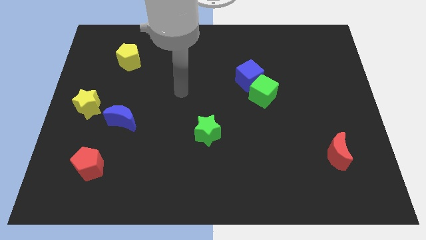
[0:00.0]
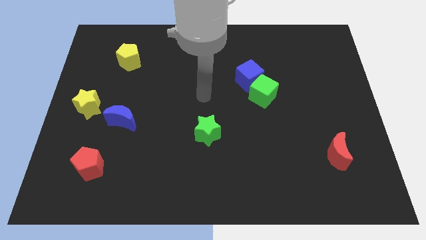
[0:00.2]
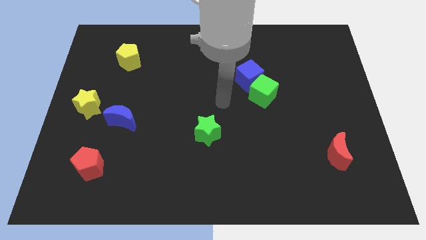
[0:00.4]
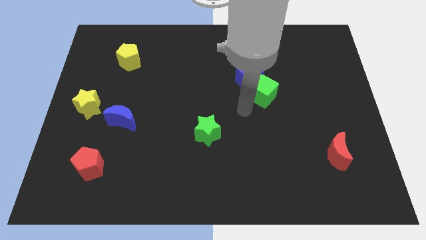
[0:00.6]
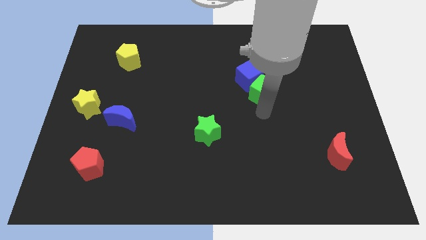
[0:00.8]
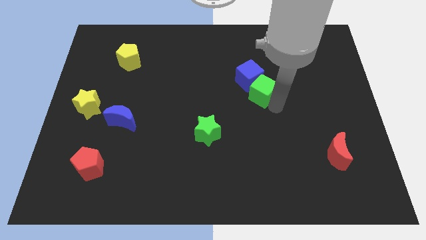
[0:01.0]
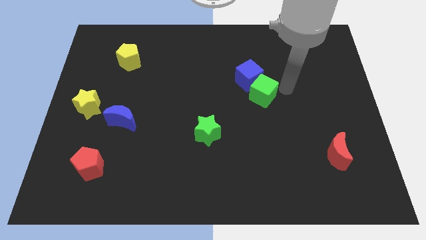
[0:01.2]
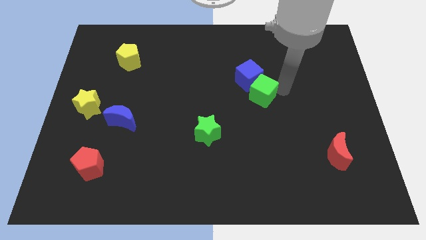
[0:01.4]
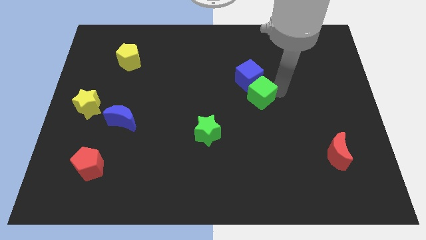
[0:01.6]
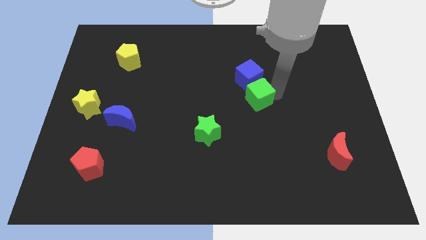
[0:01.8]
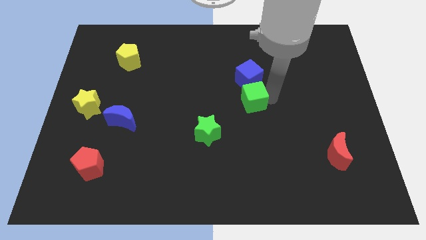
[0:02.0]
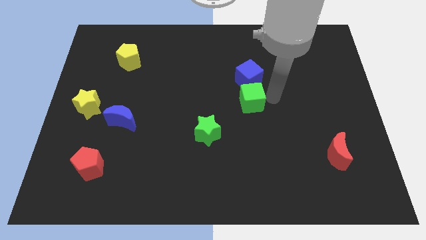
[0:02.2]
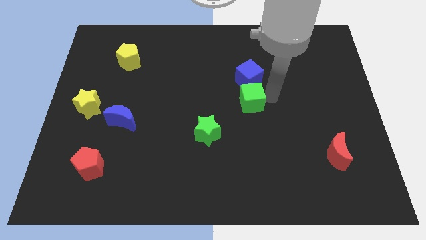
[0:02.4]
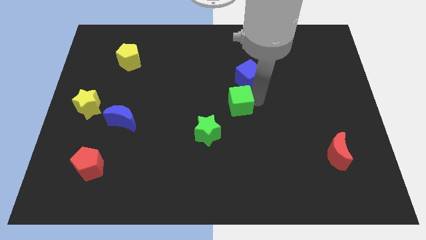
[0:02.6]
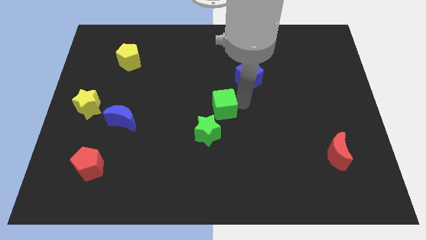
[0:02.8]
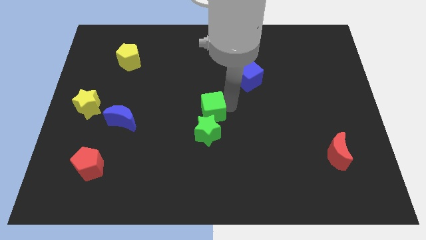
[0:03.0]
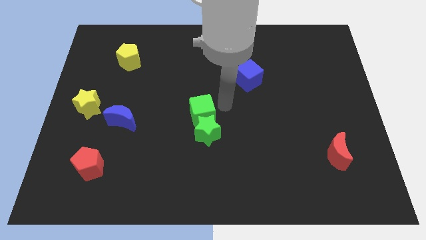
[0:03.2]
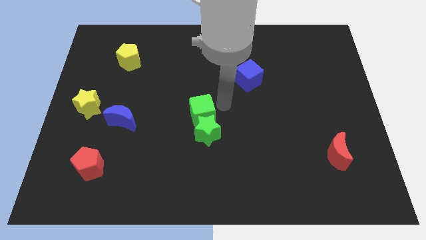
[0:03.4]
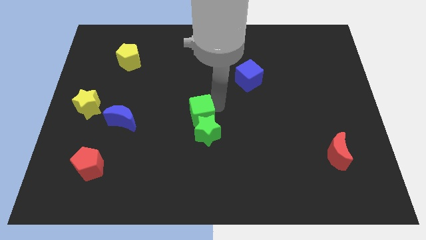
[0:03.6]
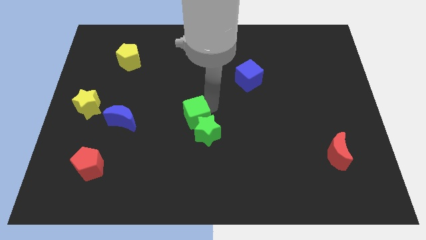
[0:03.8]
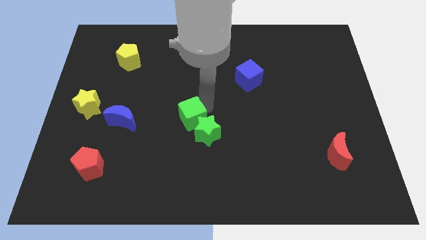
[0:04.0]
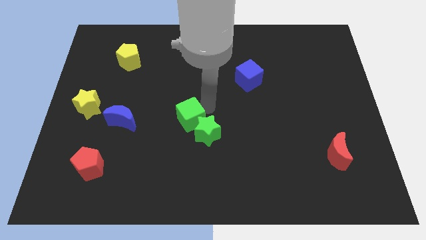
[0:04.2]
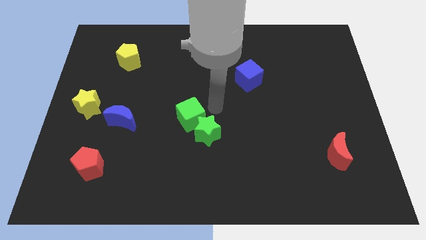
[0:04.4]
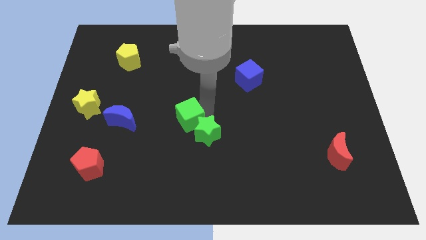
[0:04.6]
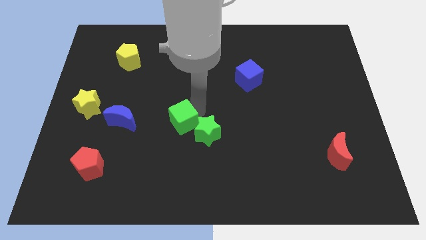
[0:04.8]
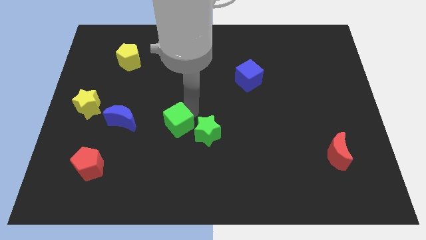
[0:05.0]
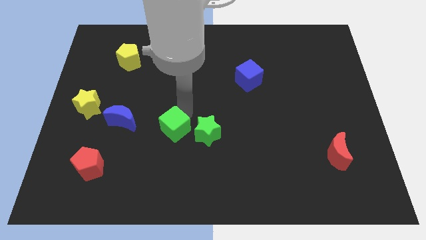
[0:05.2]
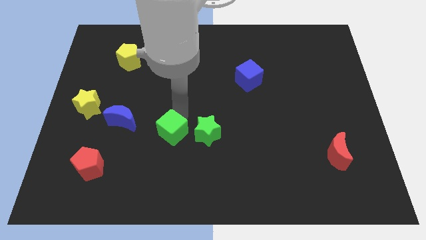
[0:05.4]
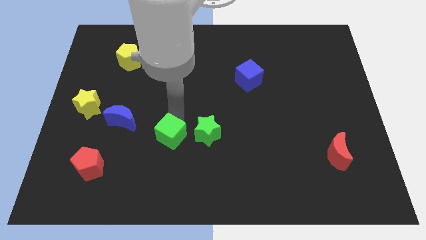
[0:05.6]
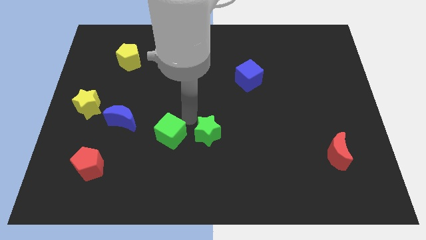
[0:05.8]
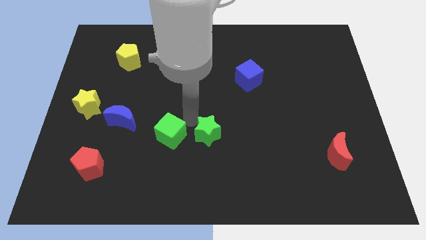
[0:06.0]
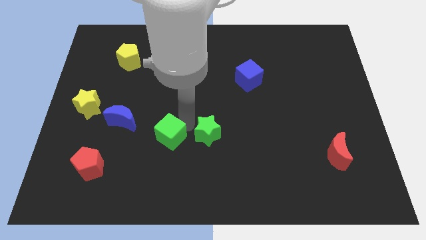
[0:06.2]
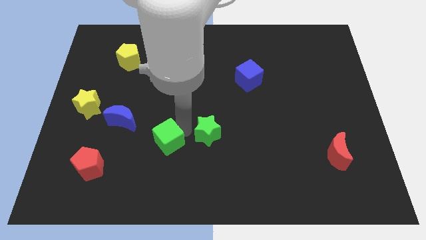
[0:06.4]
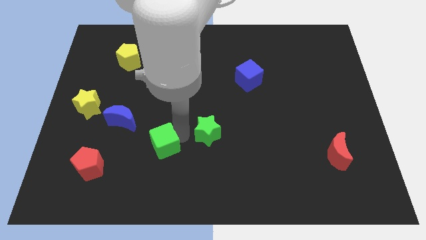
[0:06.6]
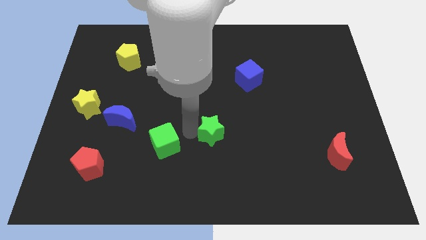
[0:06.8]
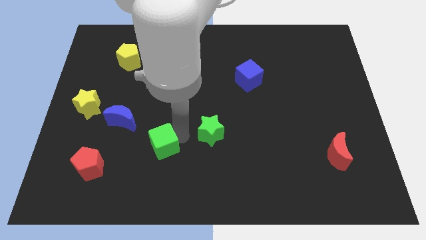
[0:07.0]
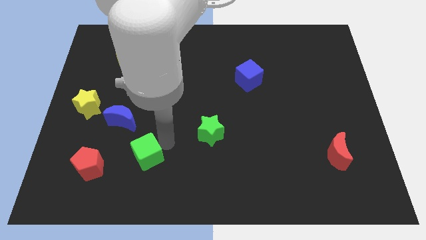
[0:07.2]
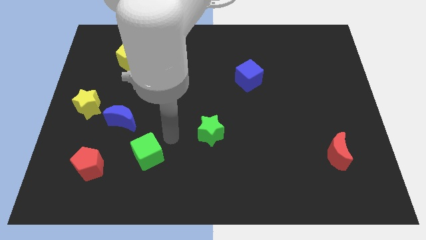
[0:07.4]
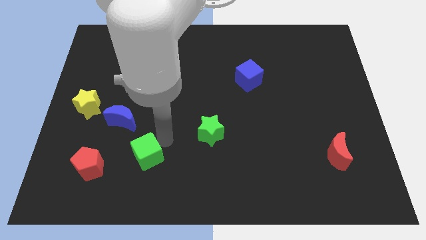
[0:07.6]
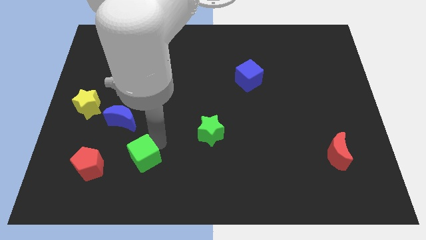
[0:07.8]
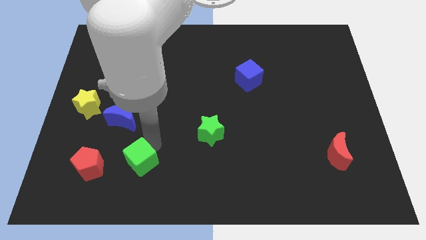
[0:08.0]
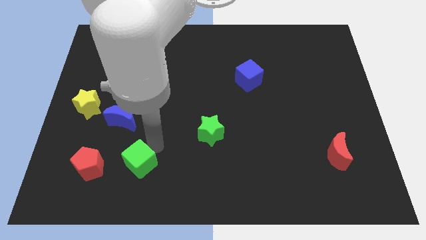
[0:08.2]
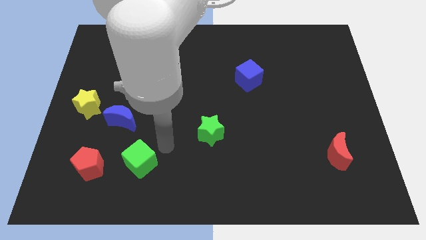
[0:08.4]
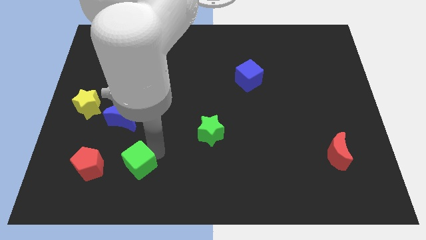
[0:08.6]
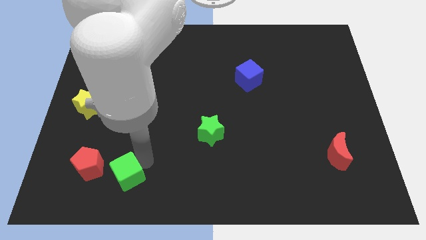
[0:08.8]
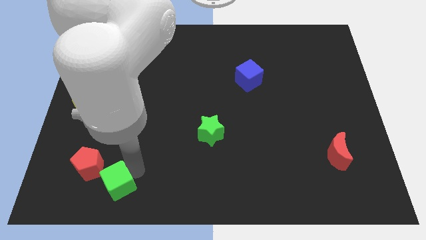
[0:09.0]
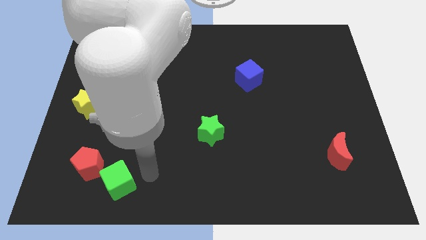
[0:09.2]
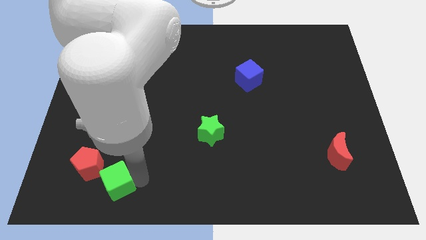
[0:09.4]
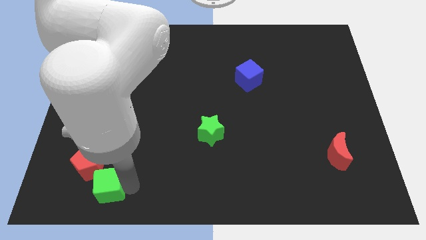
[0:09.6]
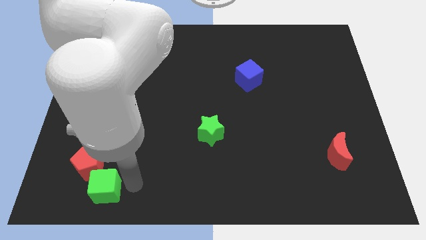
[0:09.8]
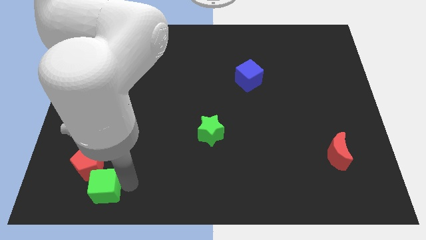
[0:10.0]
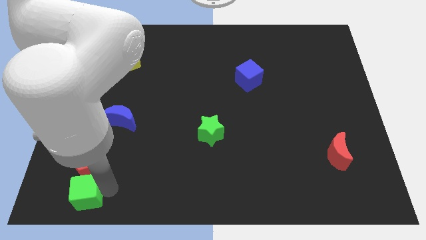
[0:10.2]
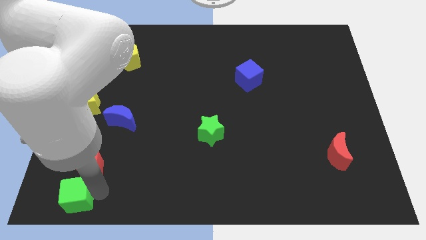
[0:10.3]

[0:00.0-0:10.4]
put the green cube to the bottom left corner
